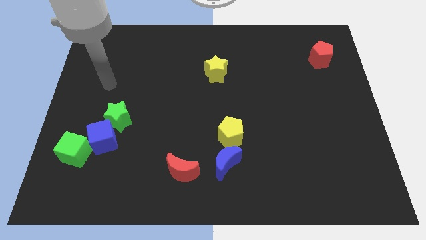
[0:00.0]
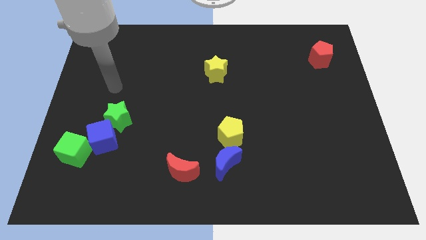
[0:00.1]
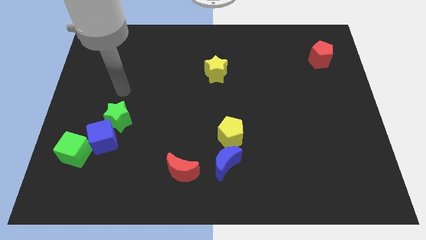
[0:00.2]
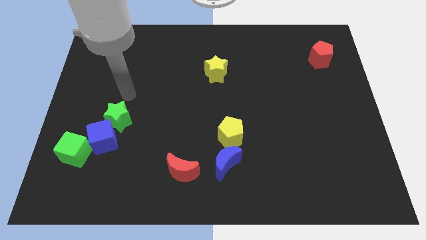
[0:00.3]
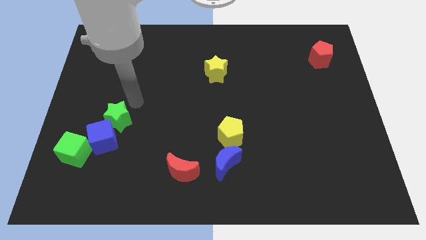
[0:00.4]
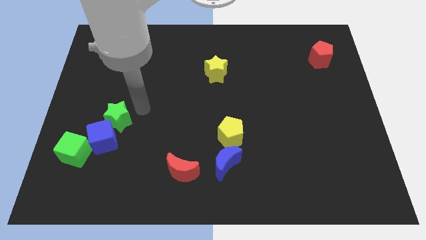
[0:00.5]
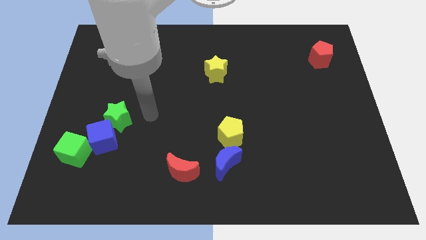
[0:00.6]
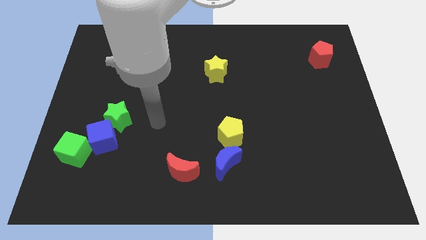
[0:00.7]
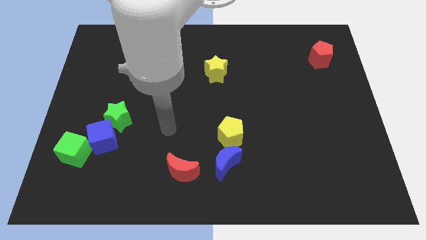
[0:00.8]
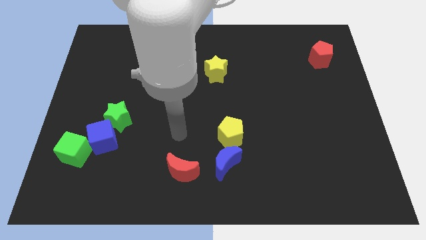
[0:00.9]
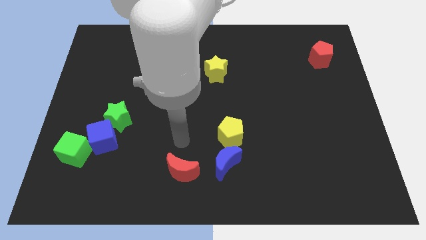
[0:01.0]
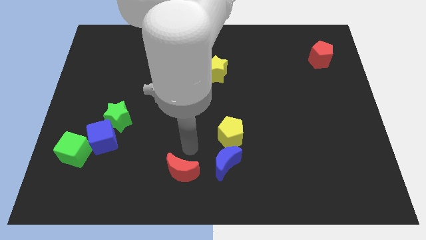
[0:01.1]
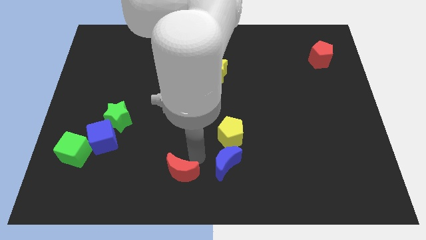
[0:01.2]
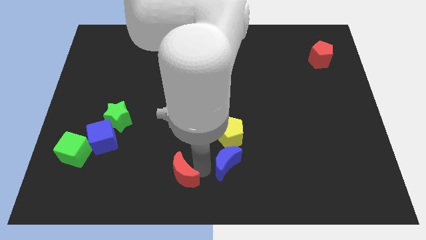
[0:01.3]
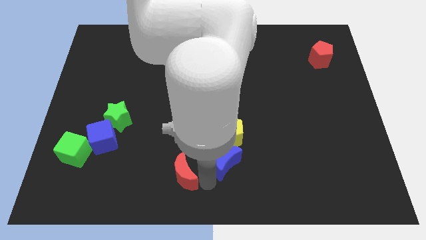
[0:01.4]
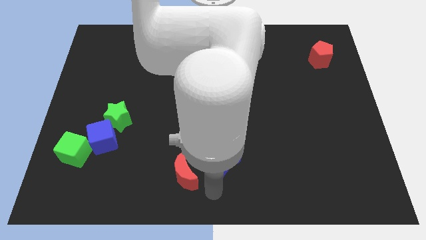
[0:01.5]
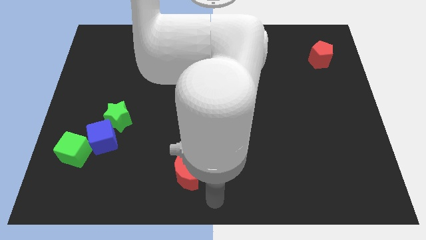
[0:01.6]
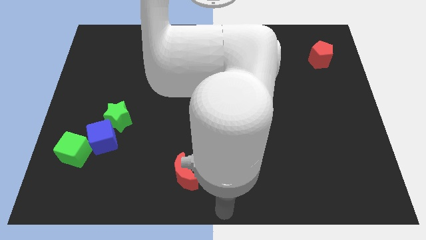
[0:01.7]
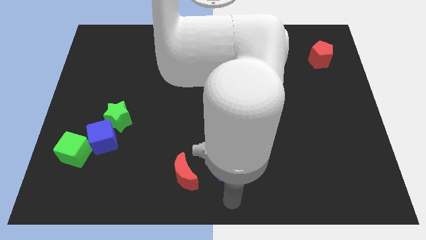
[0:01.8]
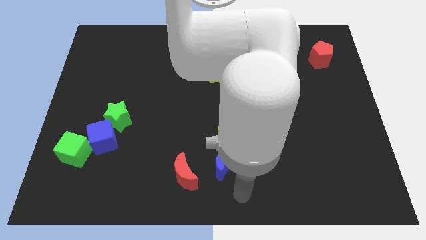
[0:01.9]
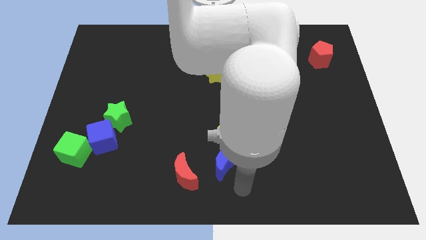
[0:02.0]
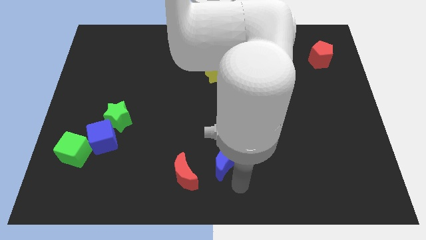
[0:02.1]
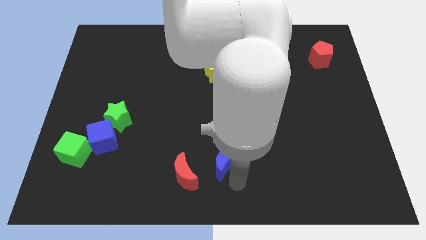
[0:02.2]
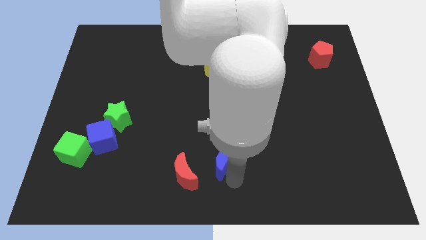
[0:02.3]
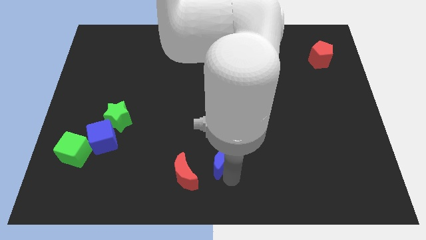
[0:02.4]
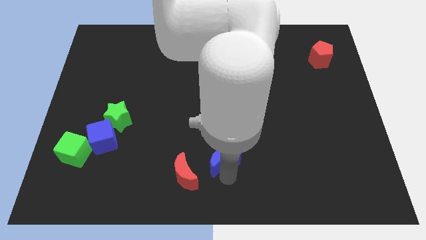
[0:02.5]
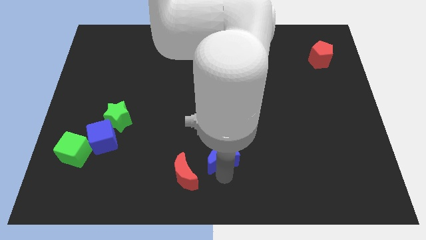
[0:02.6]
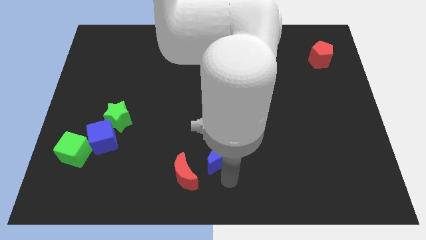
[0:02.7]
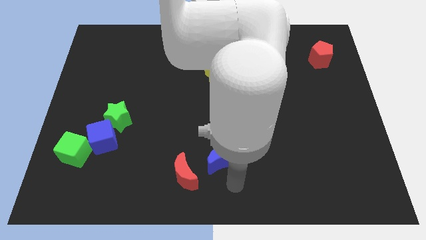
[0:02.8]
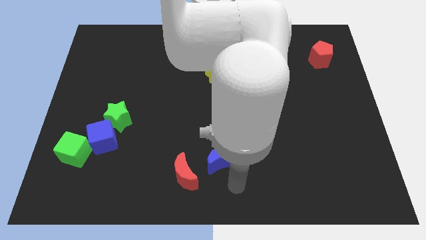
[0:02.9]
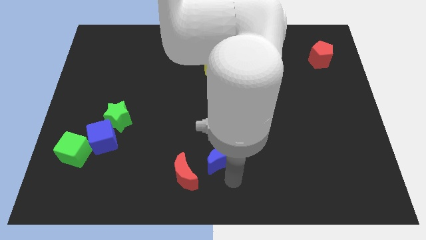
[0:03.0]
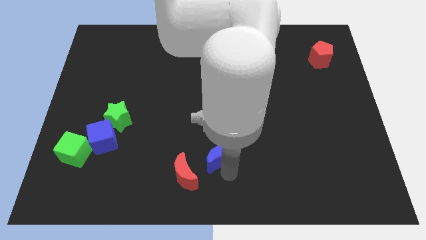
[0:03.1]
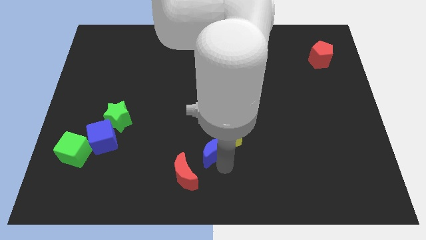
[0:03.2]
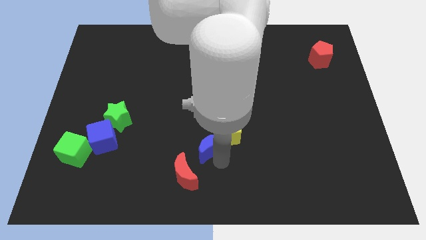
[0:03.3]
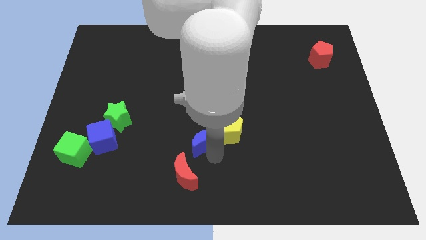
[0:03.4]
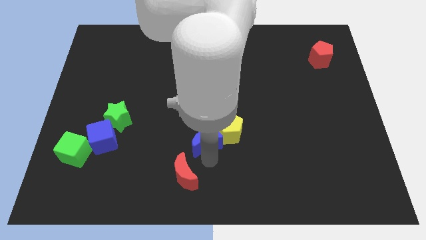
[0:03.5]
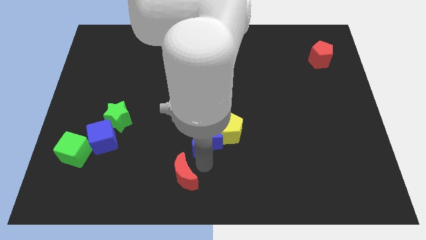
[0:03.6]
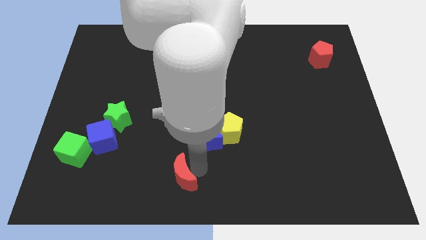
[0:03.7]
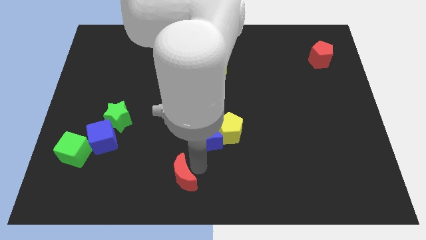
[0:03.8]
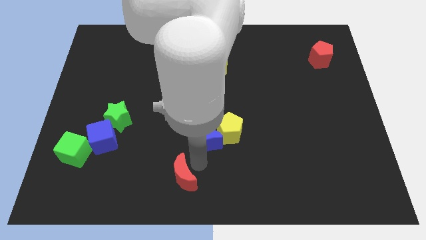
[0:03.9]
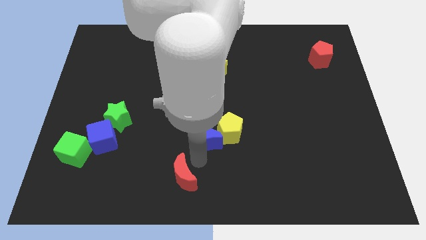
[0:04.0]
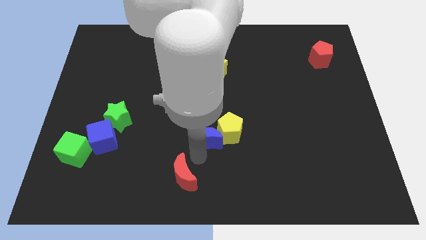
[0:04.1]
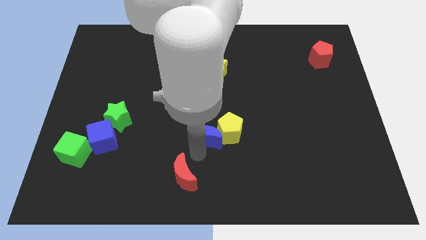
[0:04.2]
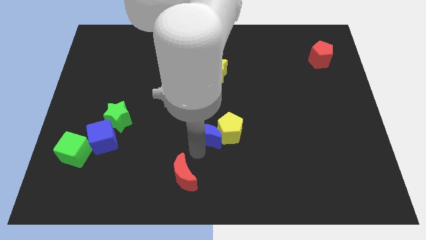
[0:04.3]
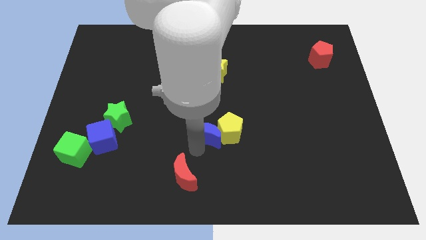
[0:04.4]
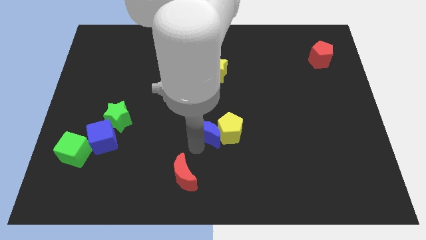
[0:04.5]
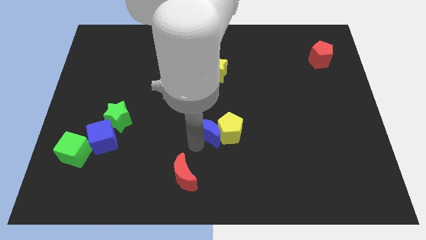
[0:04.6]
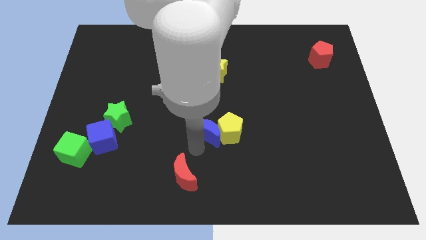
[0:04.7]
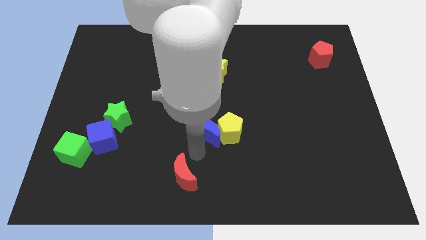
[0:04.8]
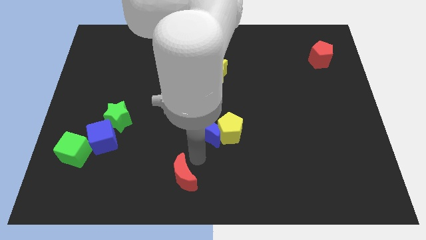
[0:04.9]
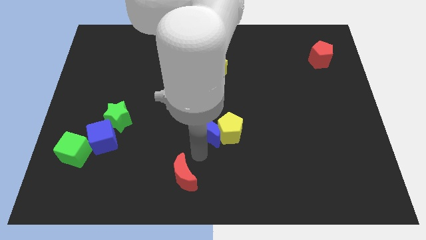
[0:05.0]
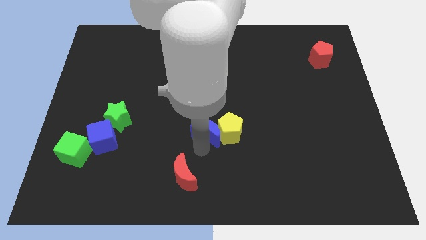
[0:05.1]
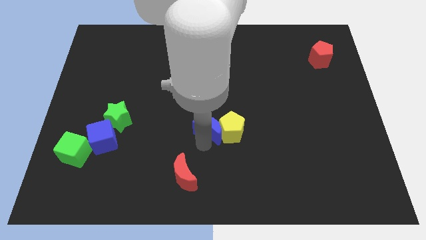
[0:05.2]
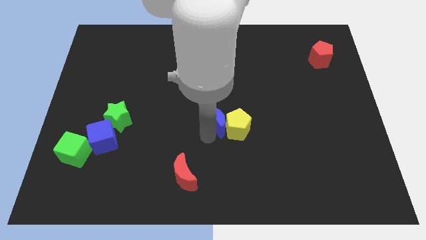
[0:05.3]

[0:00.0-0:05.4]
put the blue moon to the bottom of the yellow star
